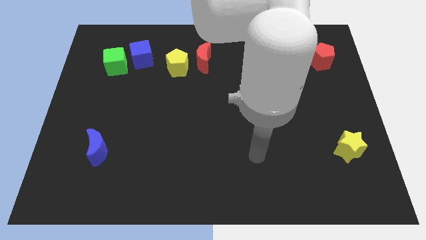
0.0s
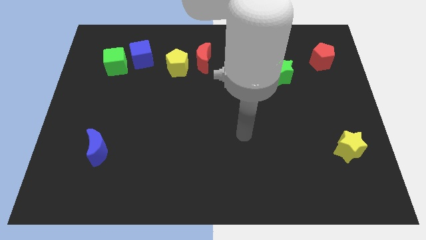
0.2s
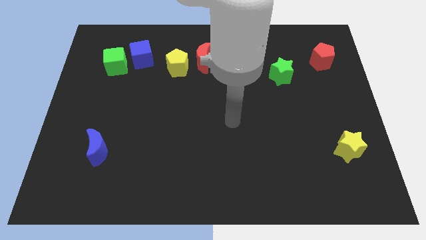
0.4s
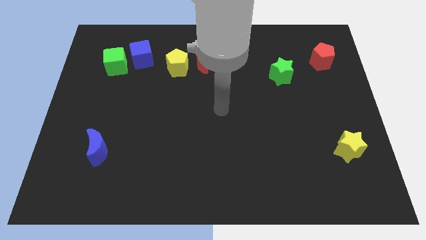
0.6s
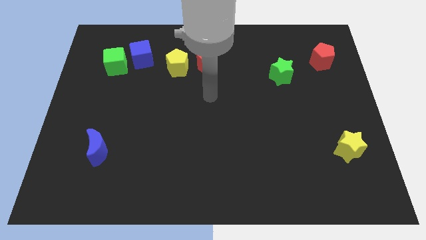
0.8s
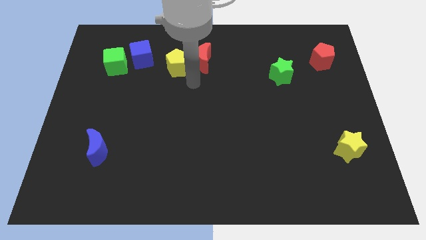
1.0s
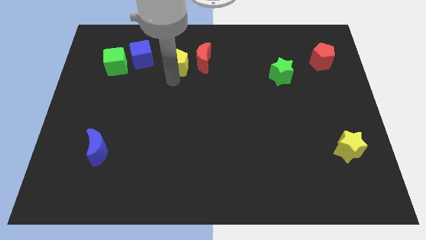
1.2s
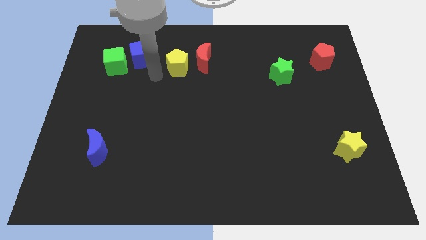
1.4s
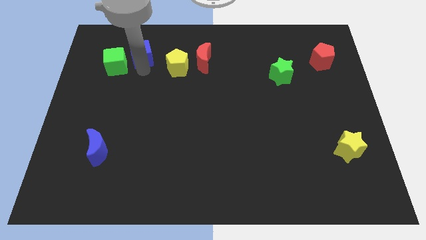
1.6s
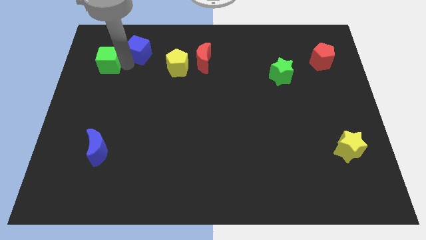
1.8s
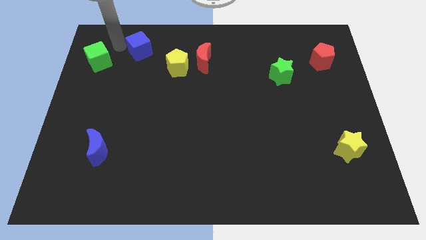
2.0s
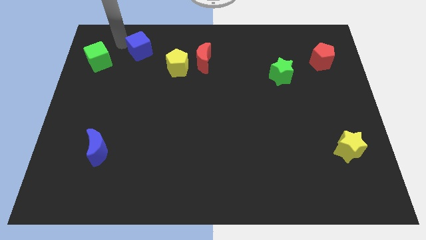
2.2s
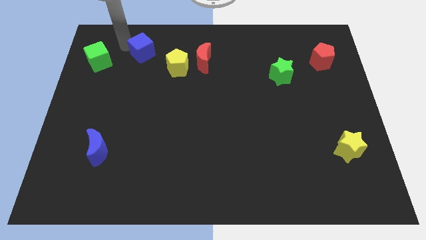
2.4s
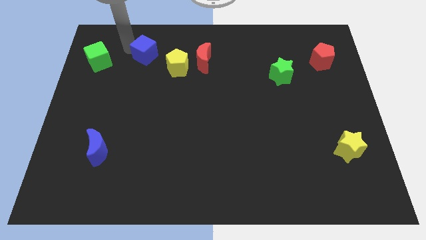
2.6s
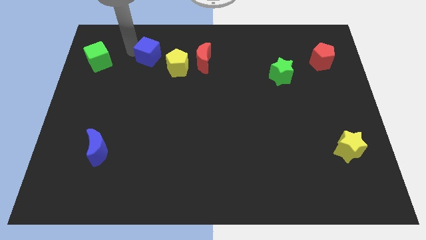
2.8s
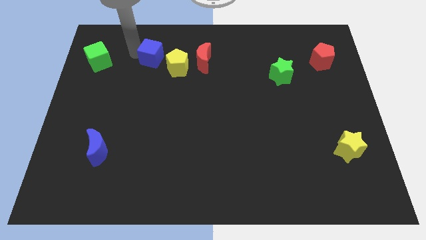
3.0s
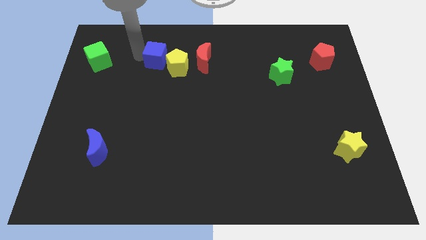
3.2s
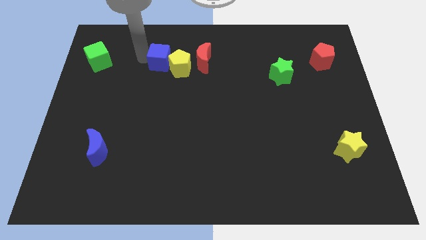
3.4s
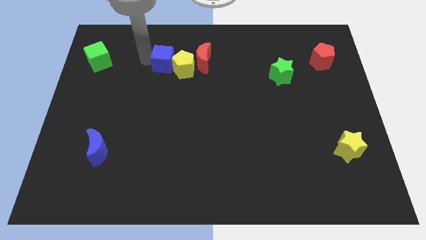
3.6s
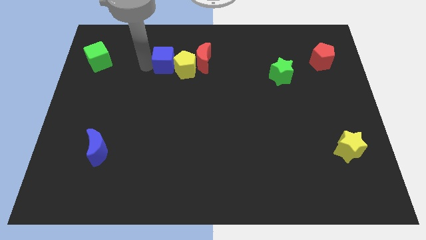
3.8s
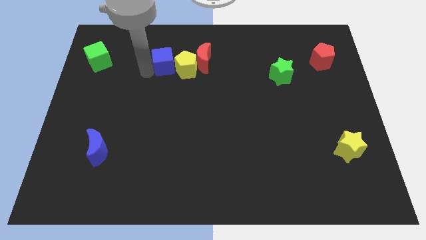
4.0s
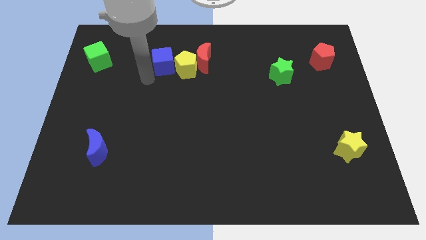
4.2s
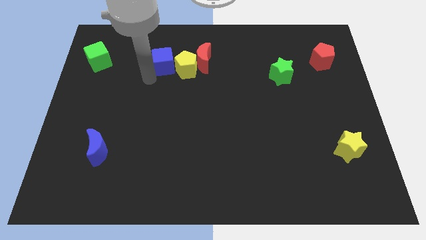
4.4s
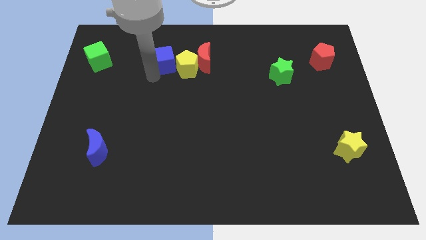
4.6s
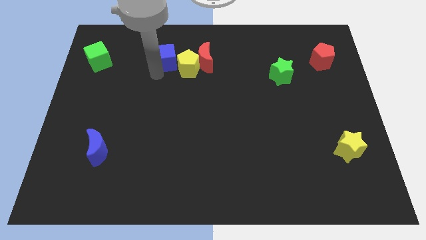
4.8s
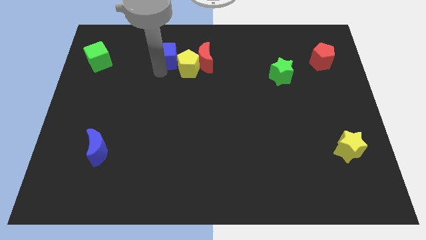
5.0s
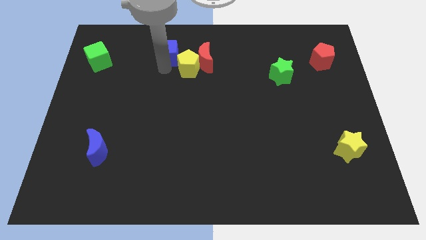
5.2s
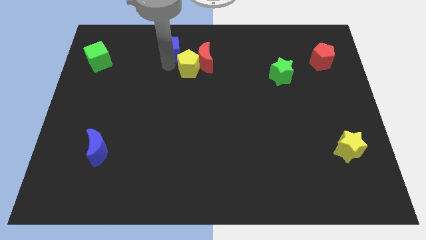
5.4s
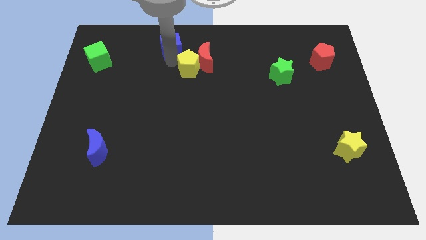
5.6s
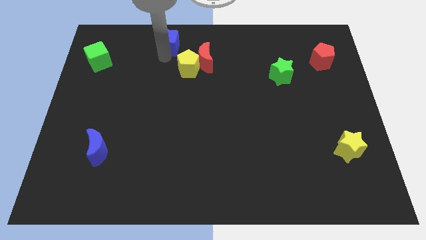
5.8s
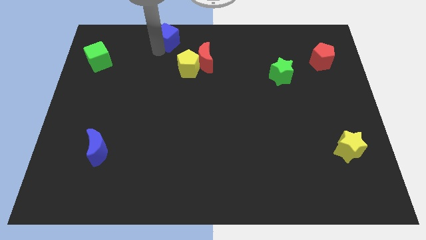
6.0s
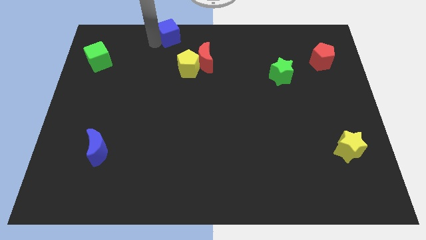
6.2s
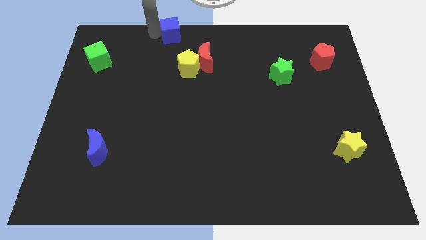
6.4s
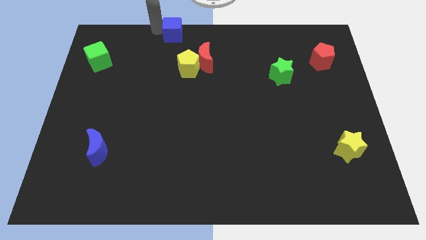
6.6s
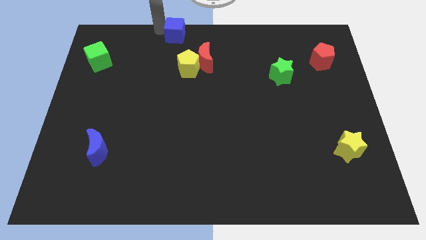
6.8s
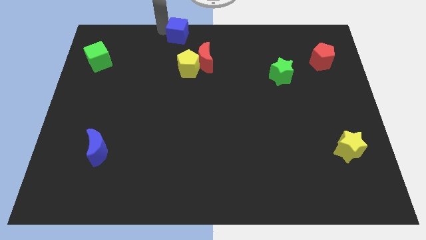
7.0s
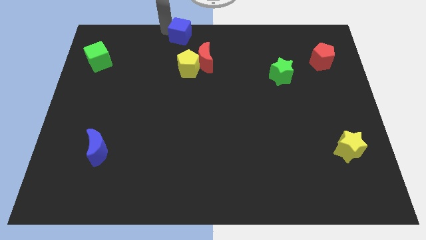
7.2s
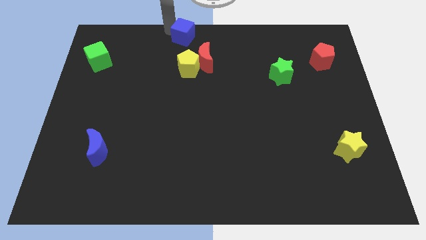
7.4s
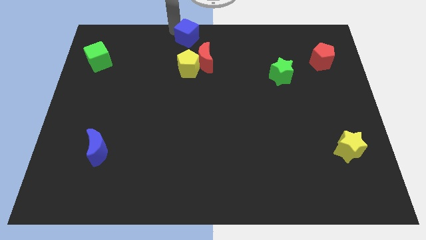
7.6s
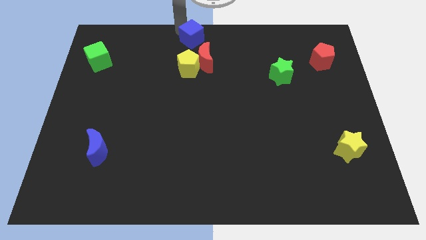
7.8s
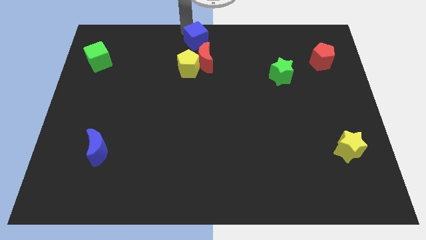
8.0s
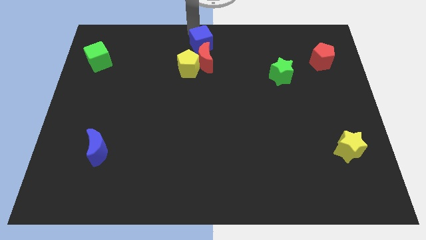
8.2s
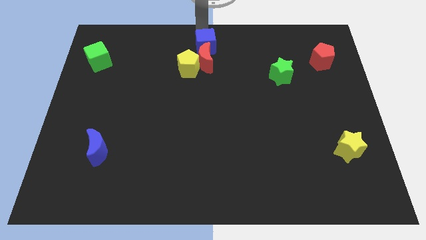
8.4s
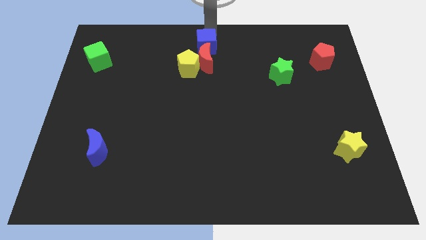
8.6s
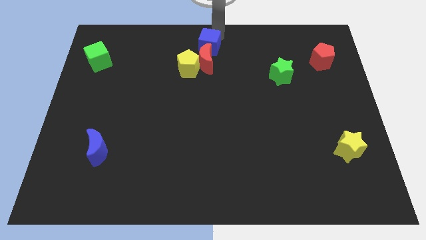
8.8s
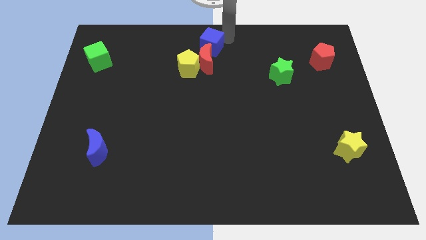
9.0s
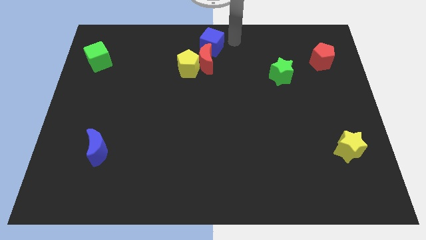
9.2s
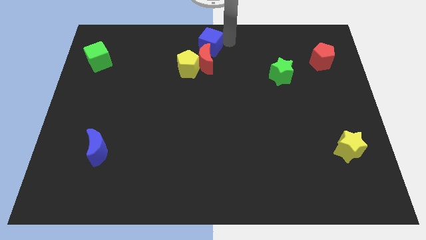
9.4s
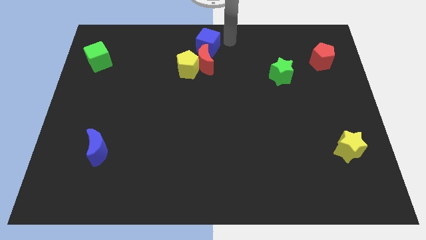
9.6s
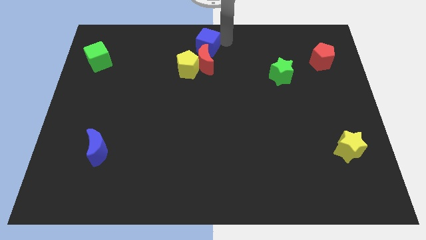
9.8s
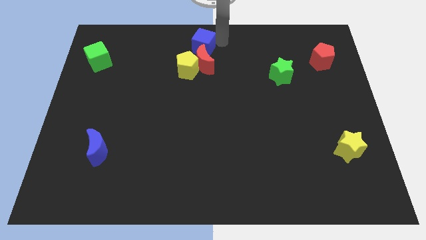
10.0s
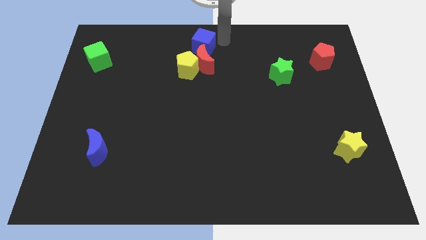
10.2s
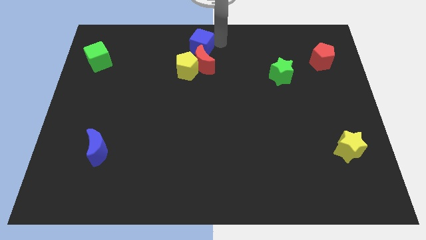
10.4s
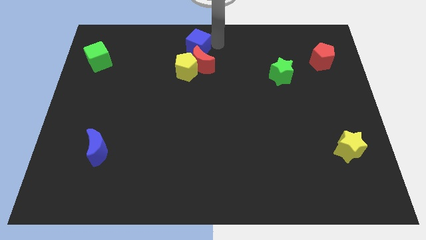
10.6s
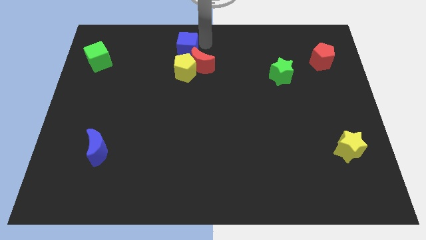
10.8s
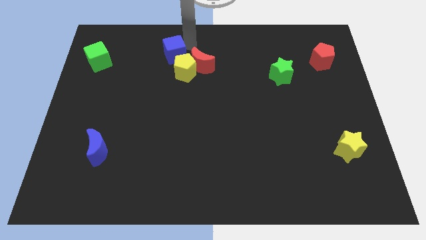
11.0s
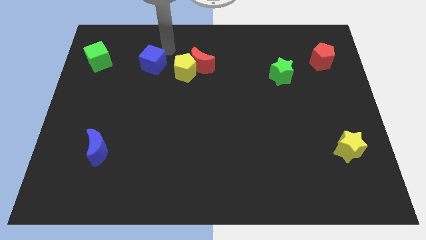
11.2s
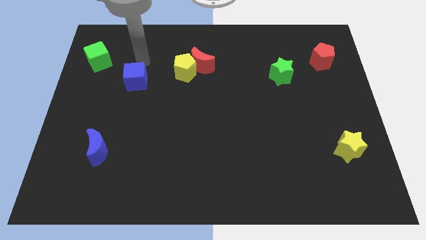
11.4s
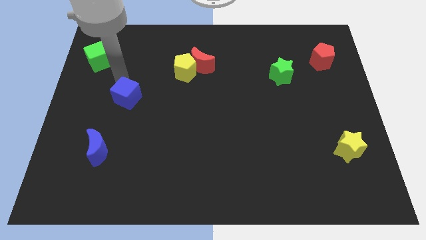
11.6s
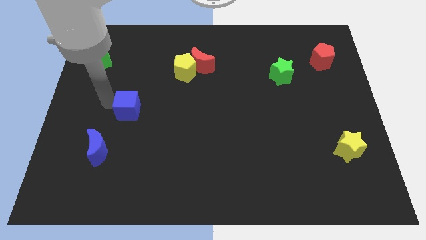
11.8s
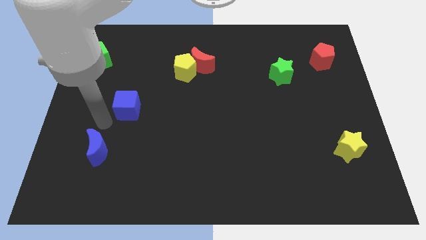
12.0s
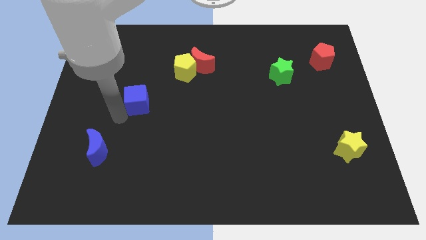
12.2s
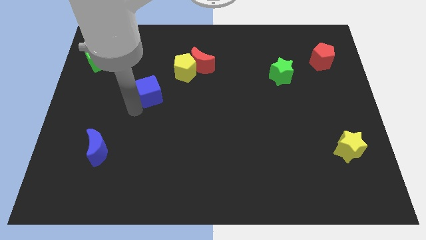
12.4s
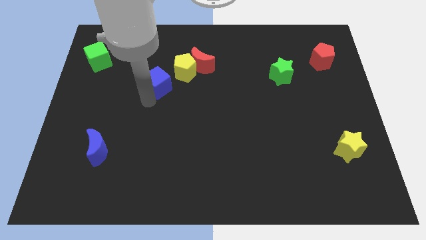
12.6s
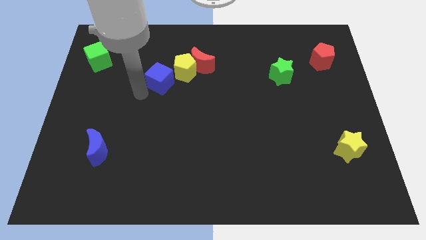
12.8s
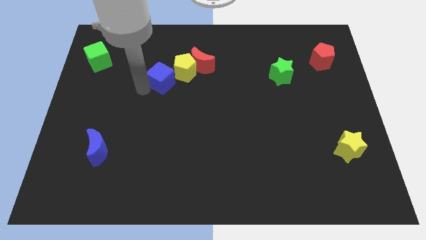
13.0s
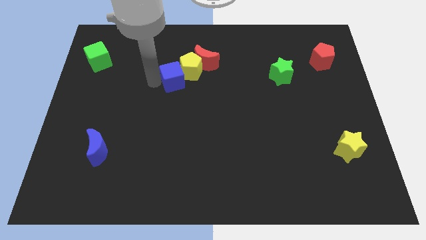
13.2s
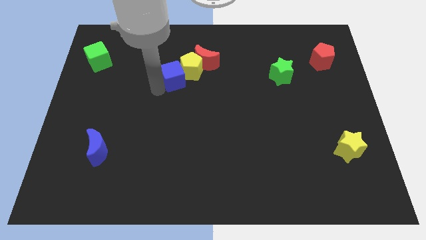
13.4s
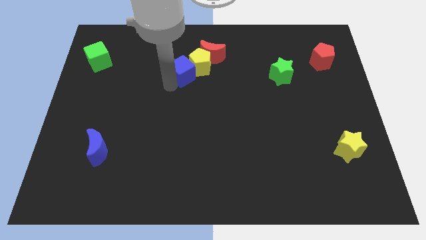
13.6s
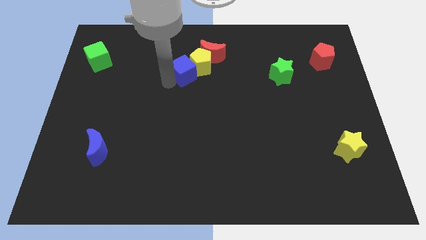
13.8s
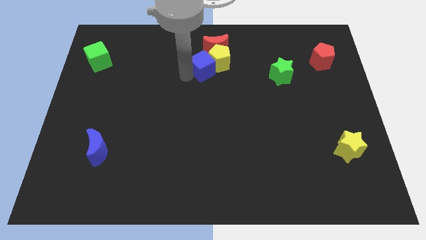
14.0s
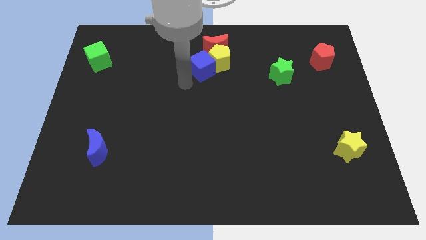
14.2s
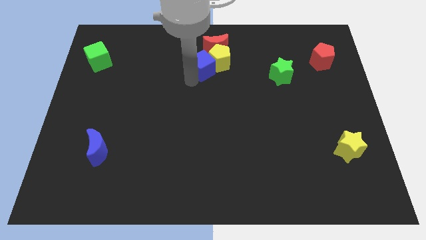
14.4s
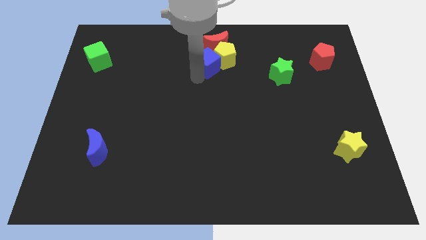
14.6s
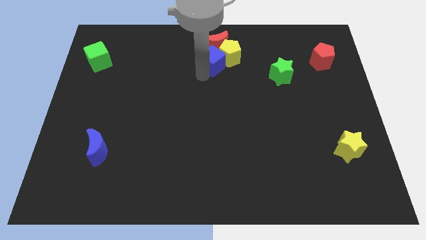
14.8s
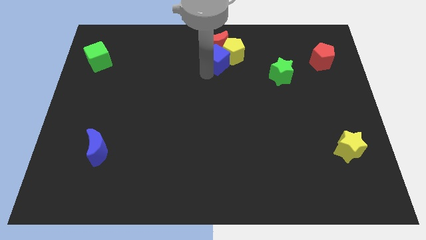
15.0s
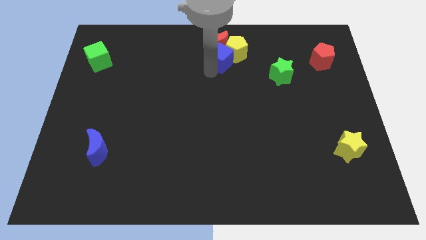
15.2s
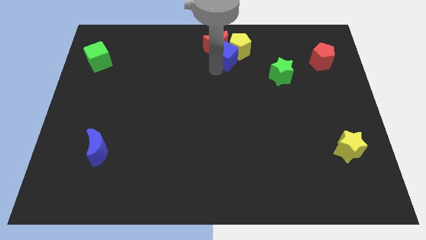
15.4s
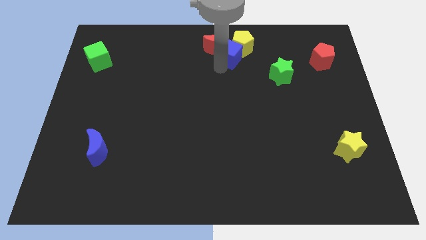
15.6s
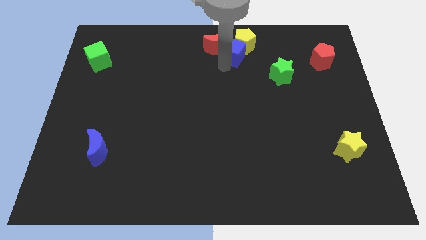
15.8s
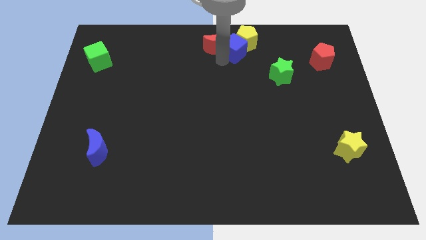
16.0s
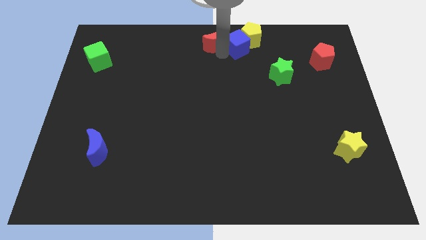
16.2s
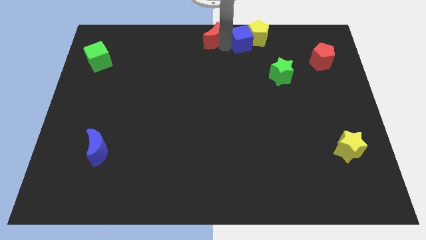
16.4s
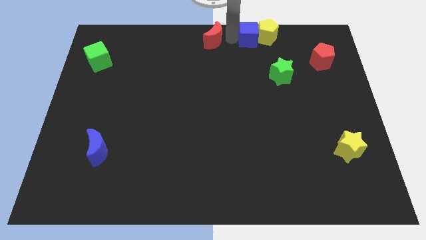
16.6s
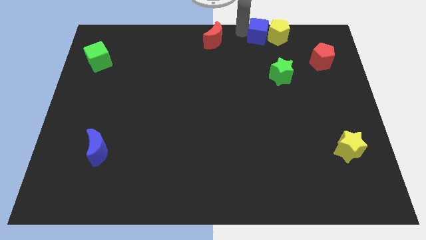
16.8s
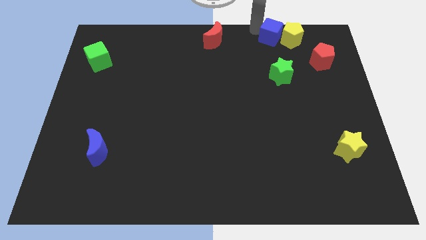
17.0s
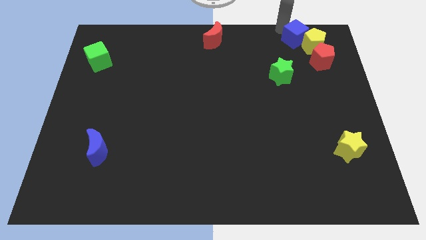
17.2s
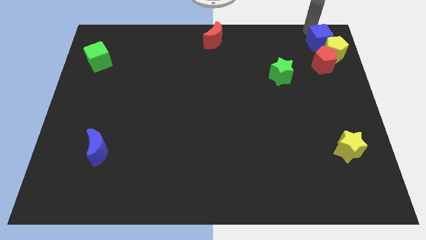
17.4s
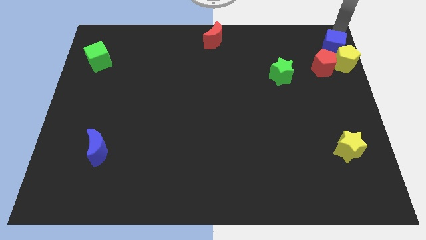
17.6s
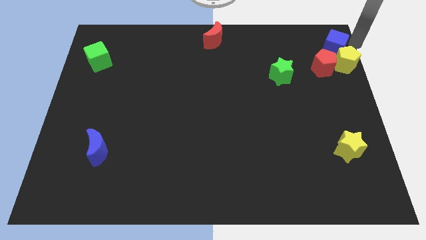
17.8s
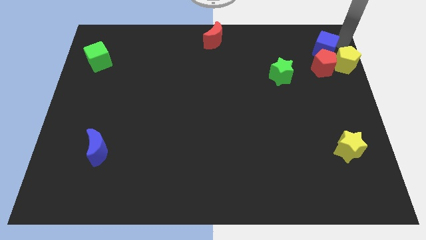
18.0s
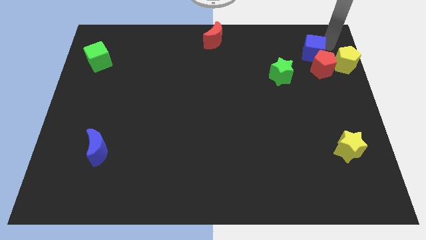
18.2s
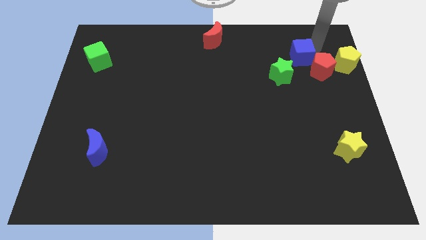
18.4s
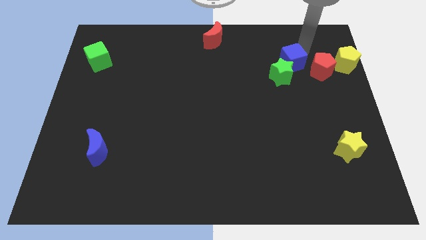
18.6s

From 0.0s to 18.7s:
push the blue cube to the green star
